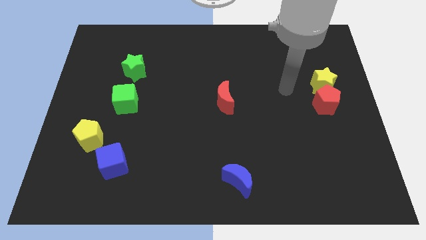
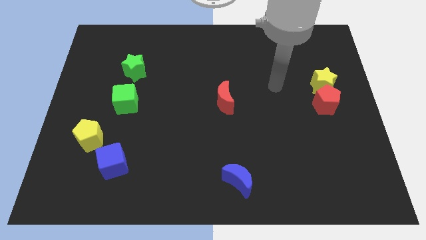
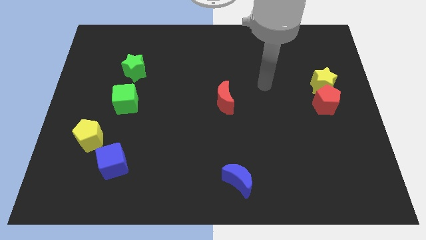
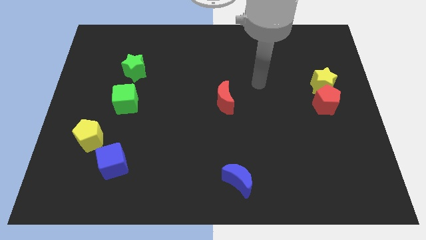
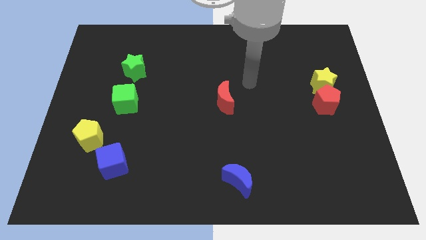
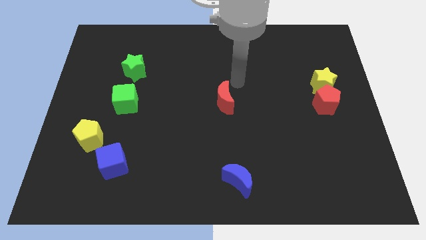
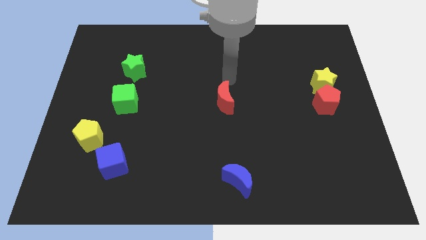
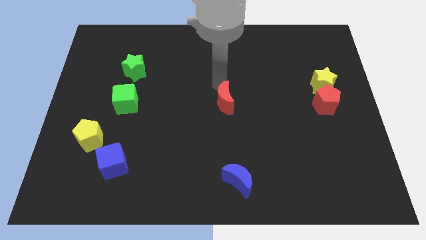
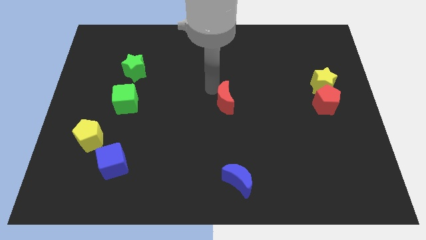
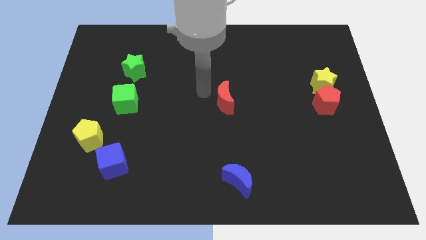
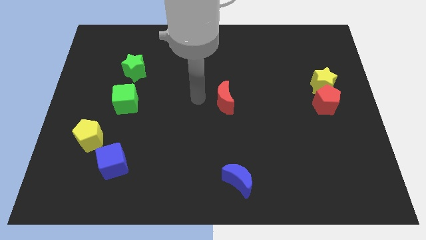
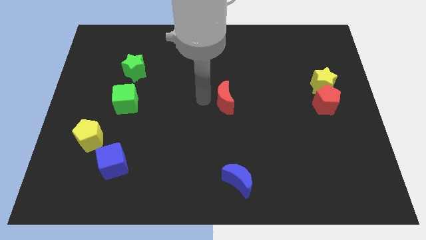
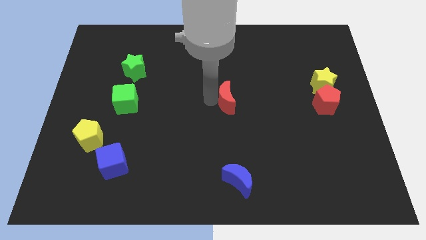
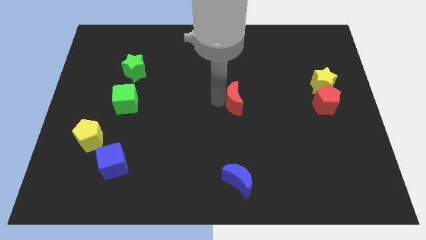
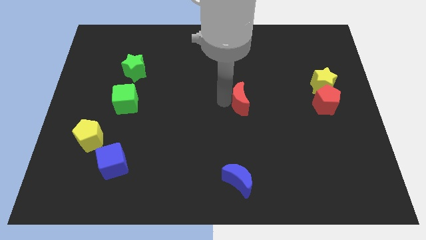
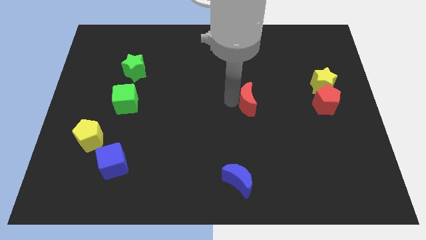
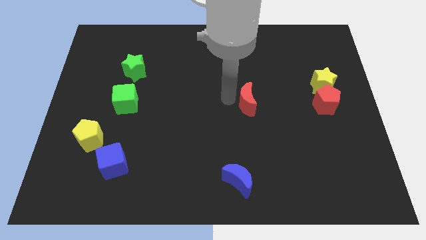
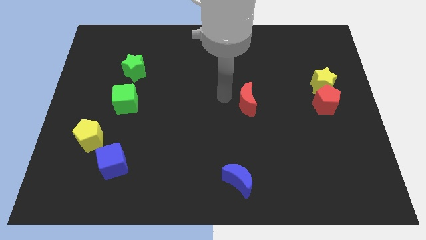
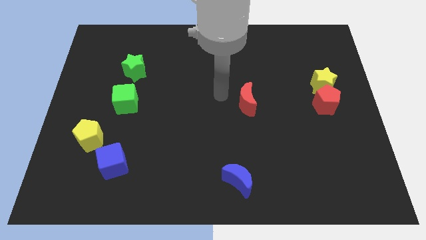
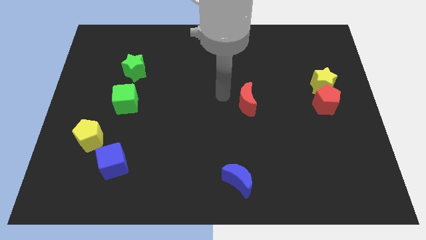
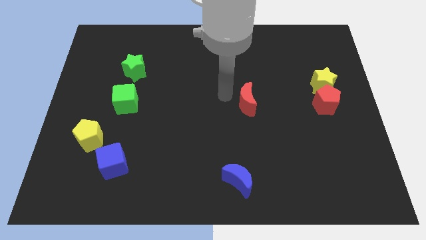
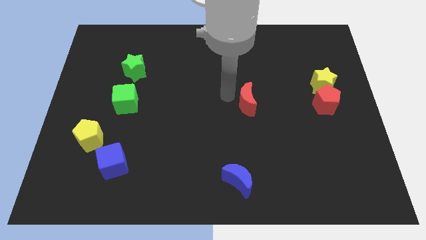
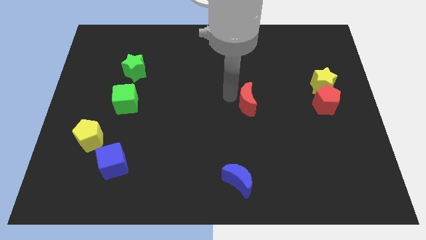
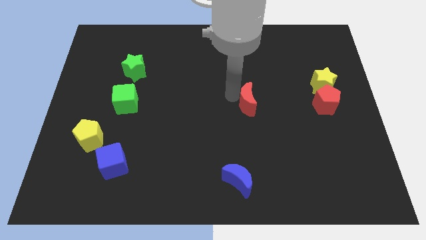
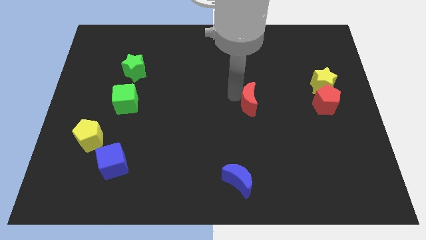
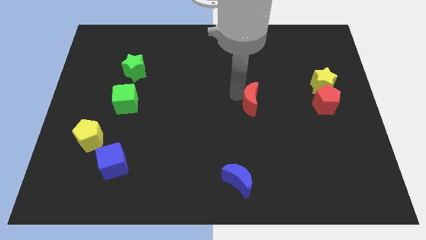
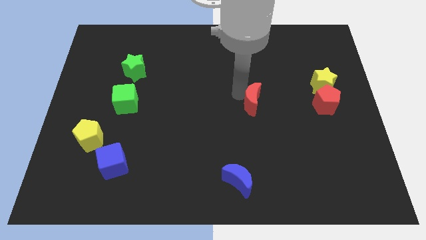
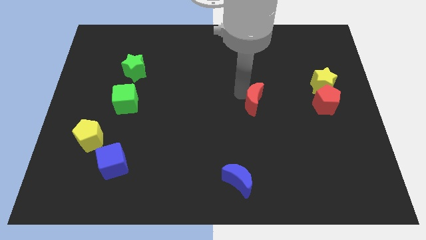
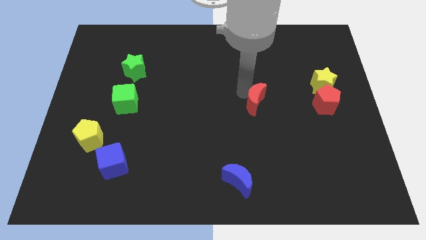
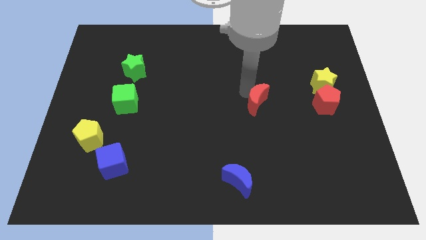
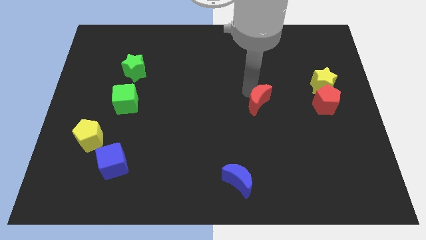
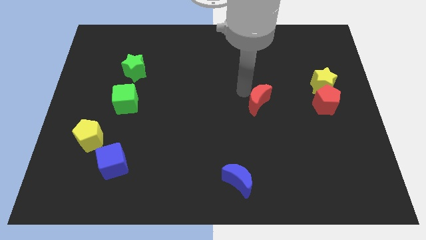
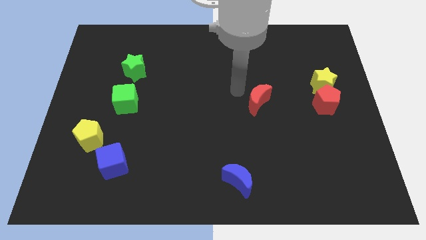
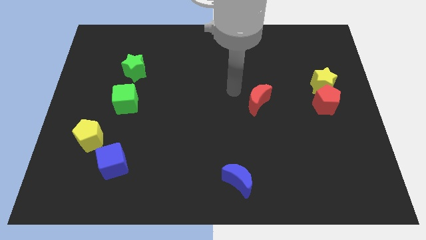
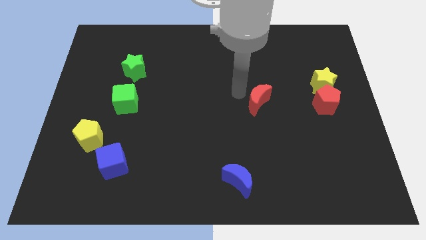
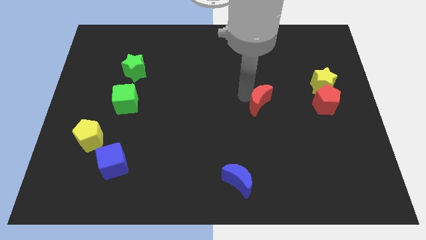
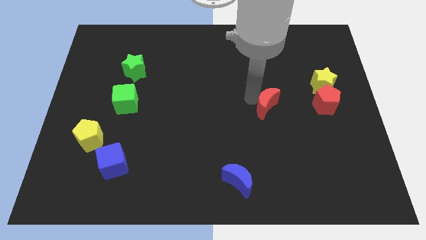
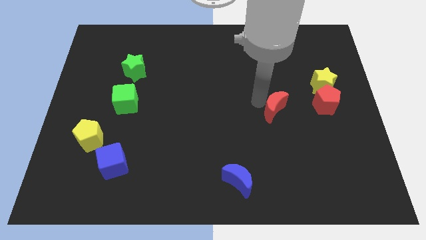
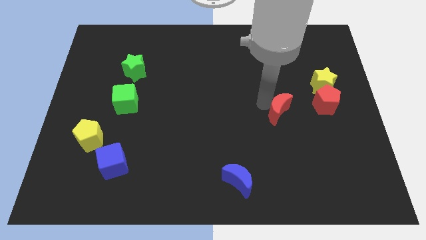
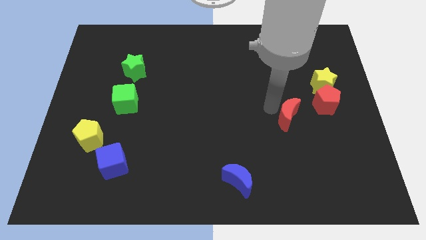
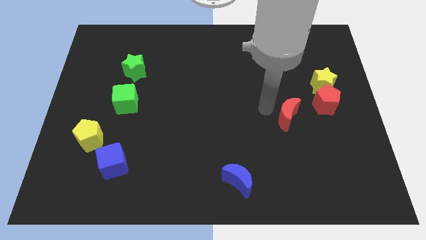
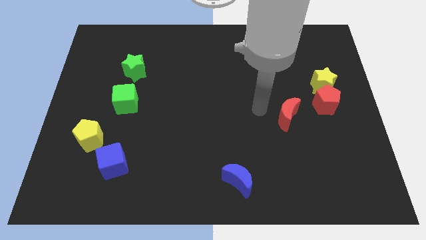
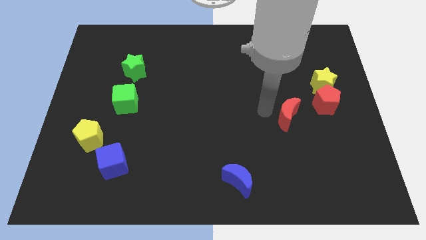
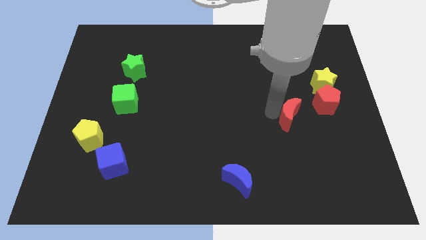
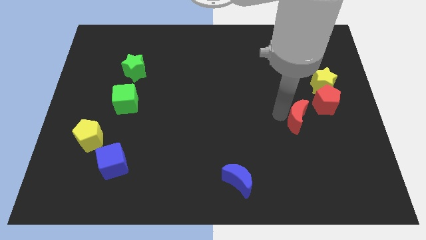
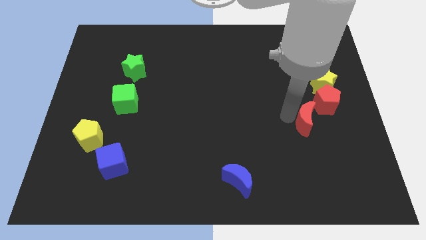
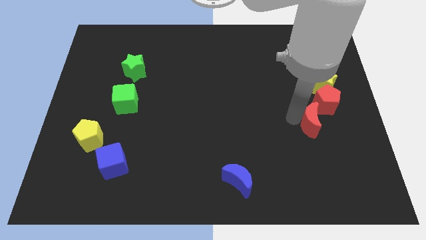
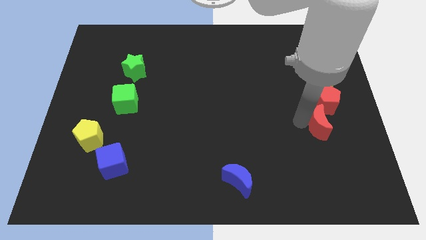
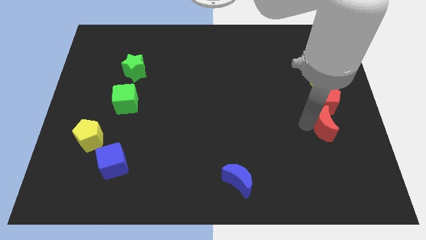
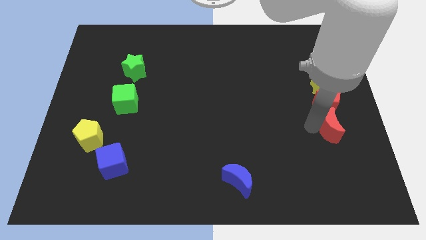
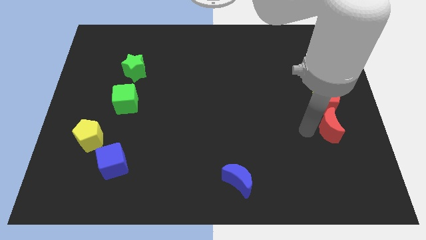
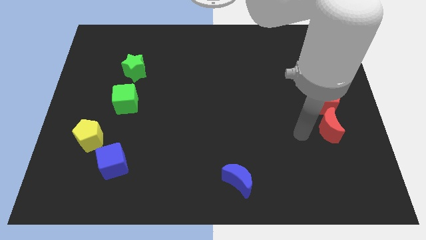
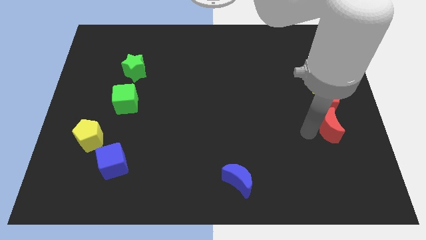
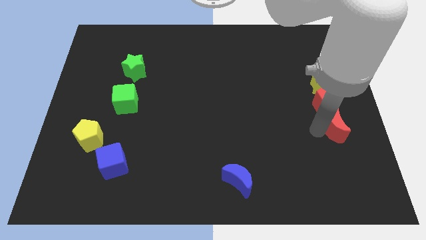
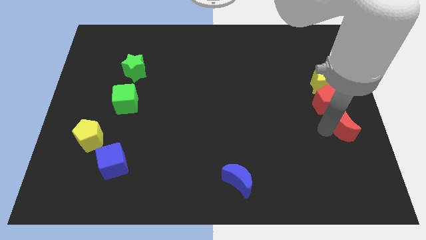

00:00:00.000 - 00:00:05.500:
put the red moon to the center right

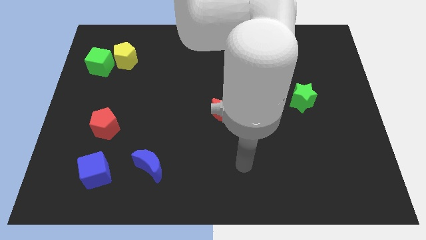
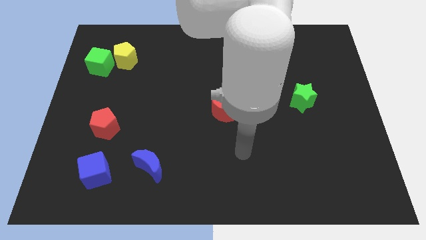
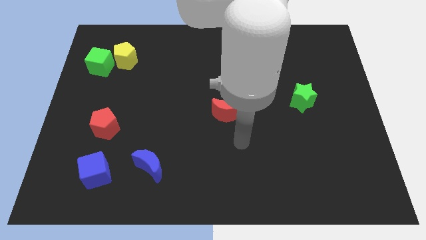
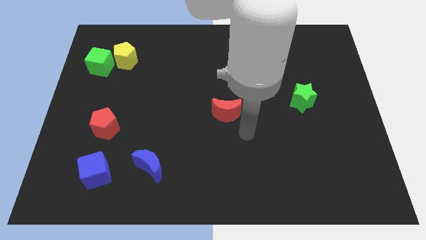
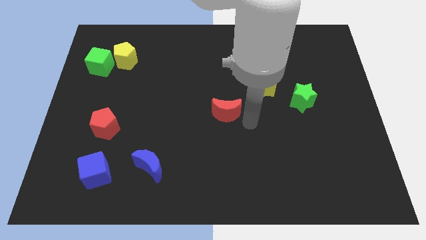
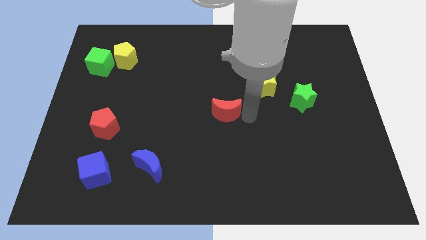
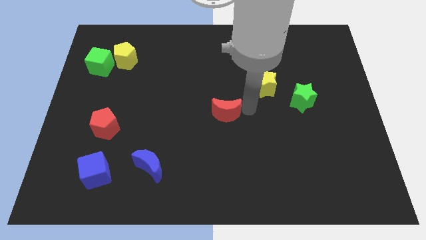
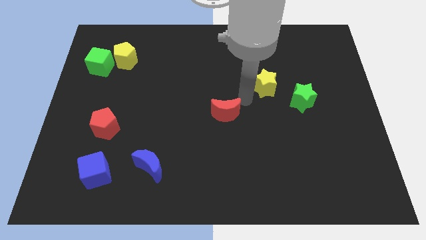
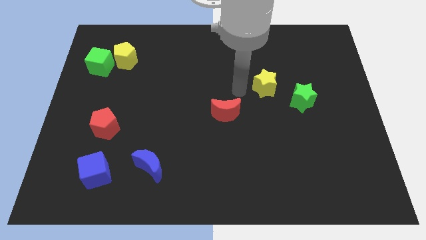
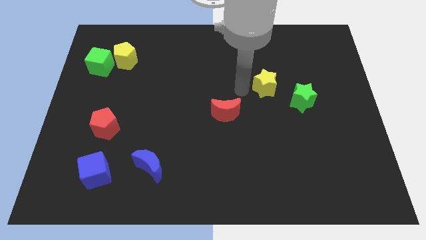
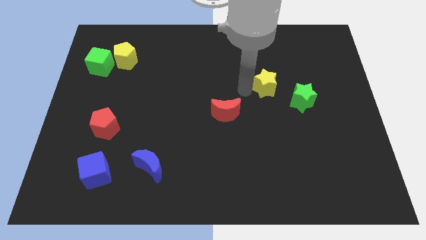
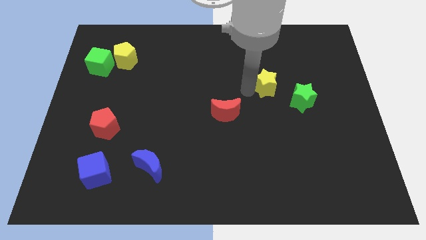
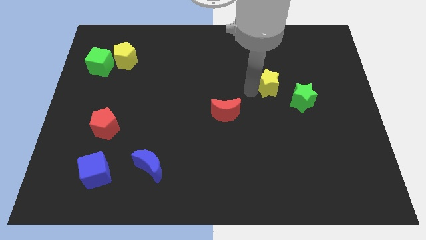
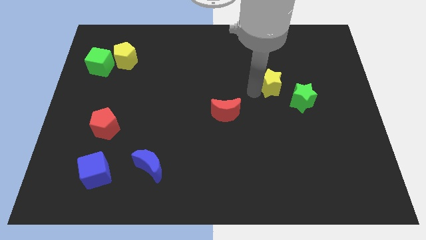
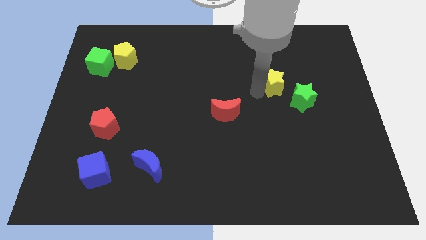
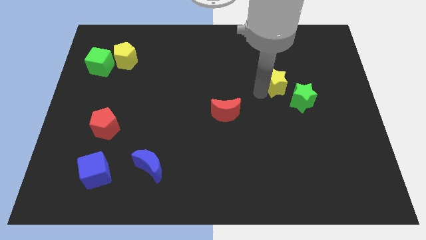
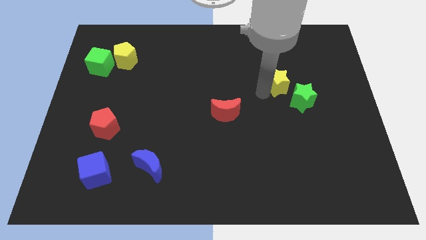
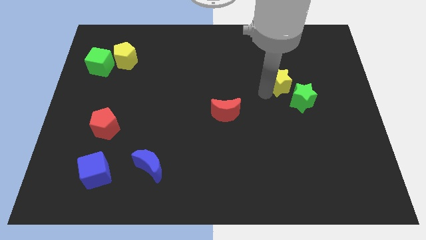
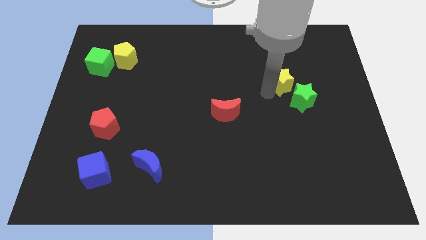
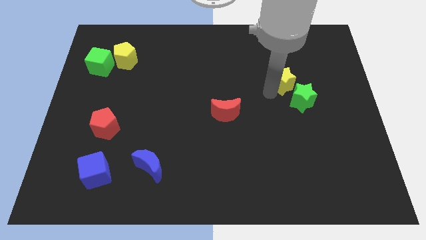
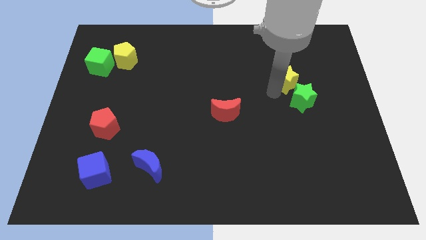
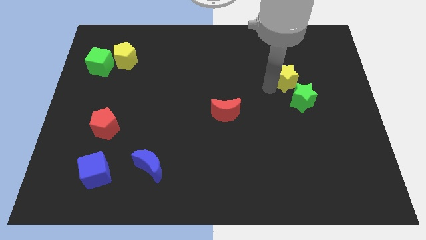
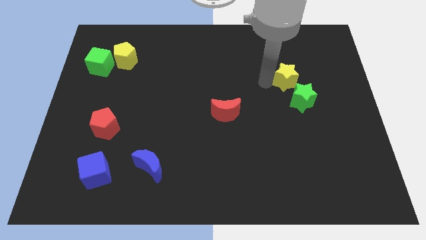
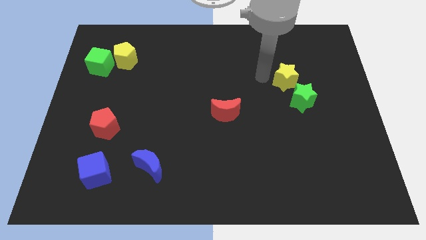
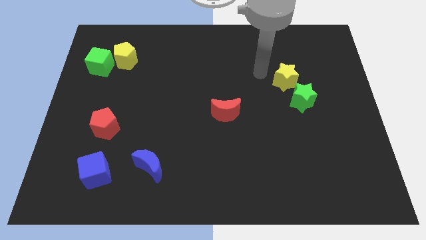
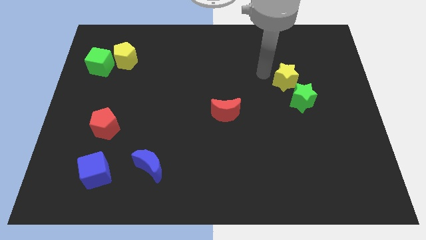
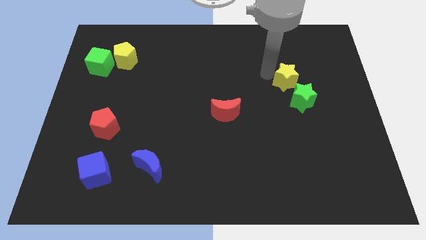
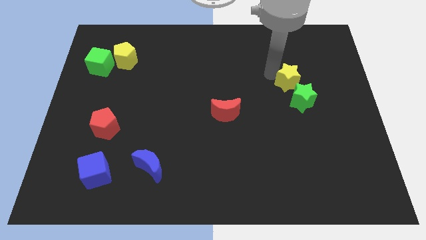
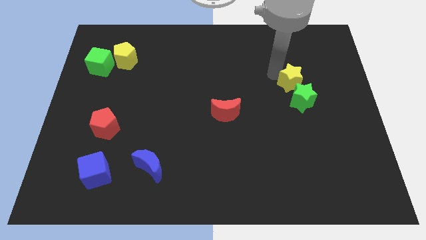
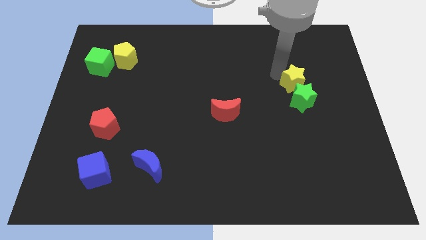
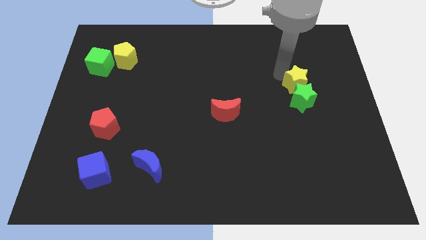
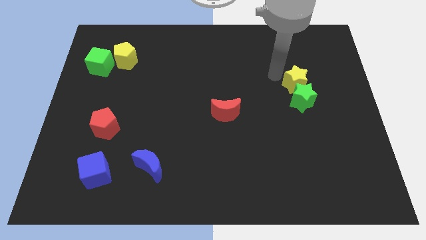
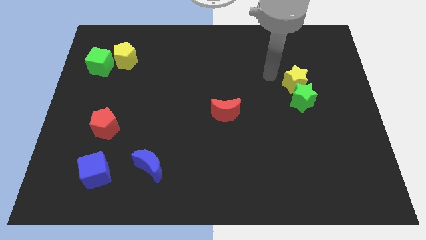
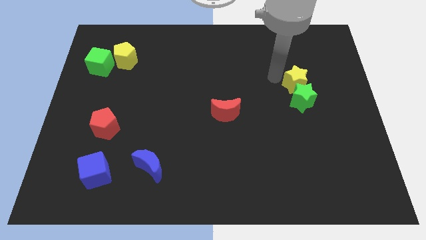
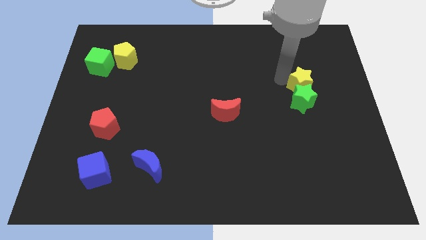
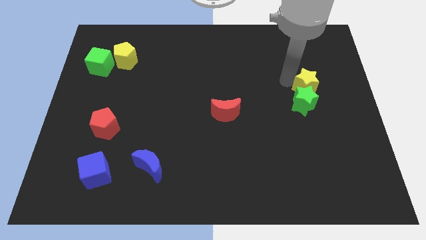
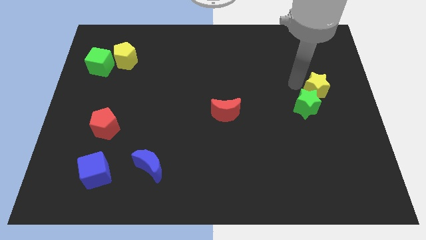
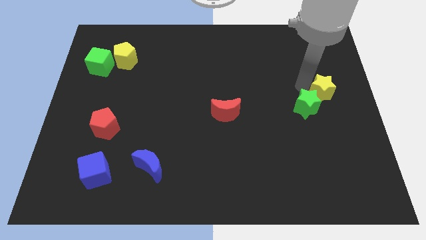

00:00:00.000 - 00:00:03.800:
put the yellow star to the right side of the board
